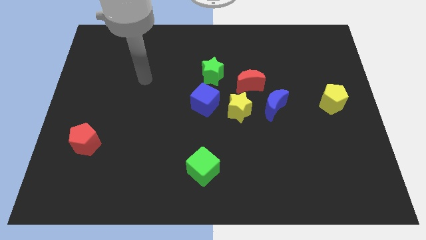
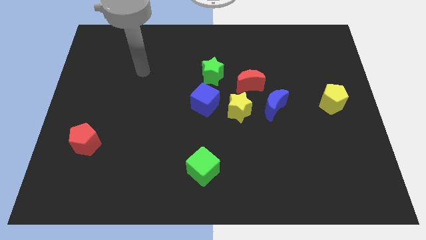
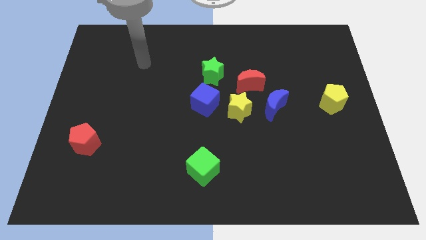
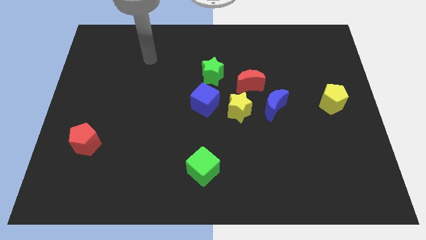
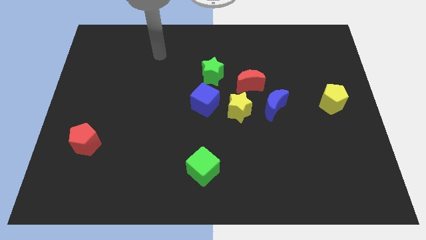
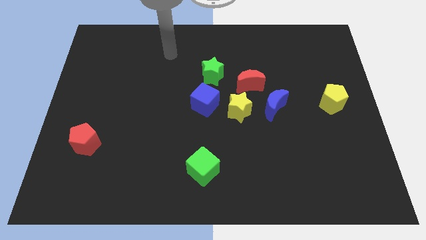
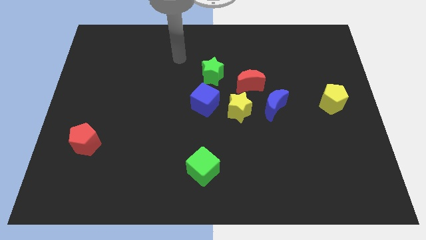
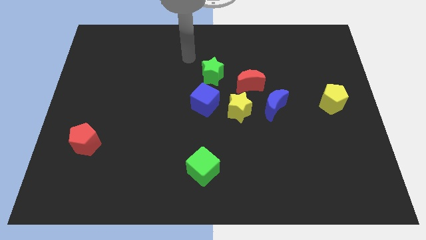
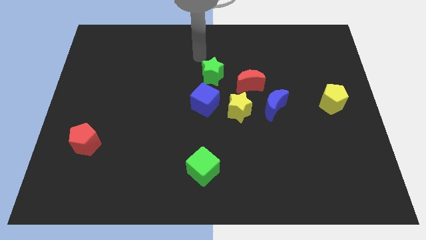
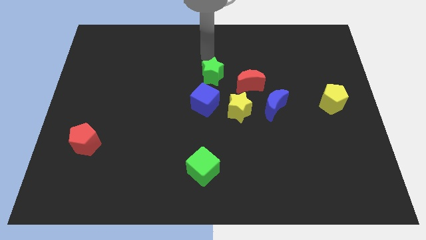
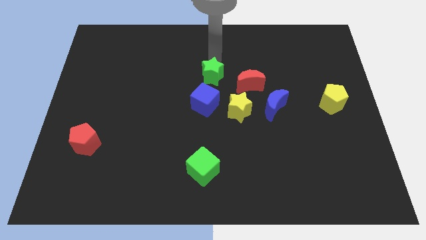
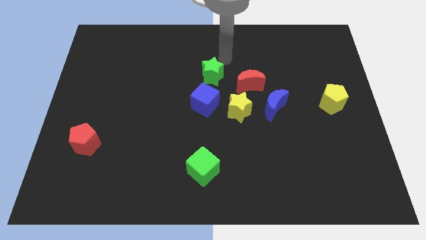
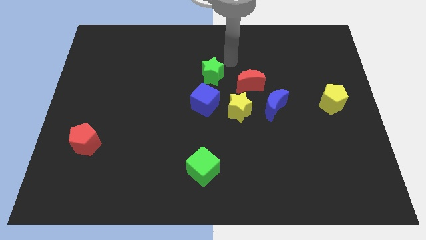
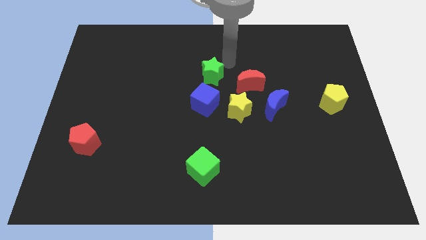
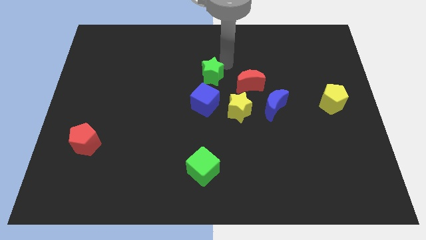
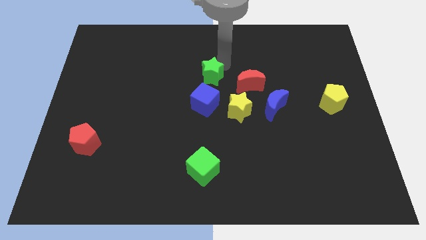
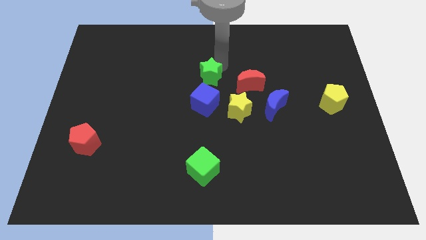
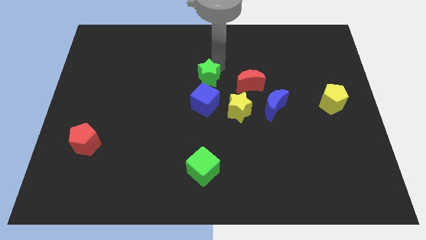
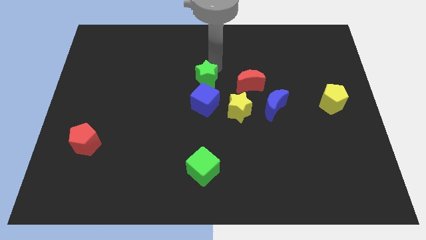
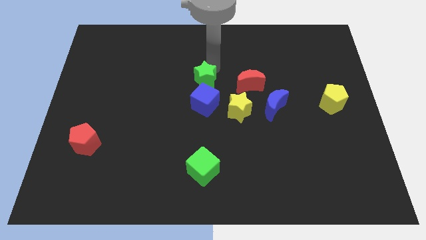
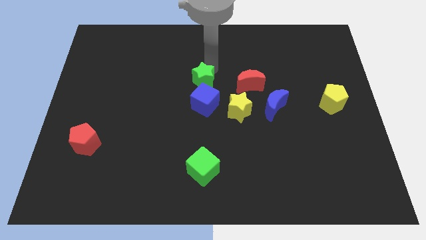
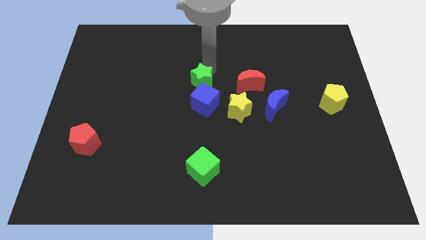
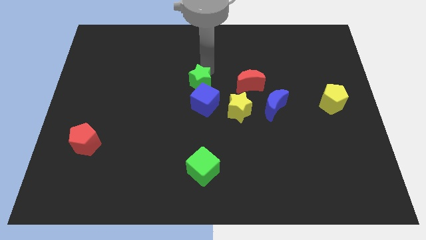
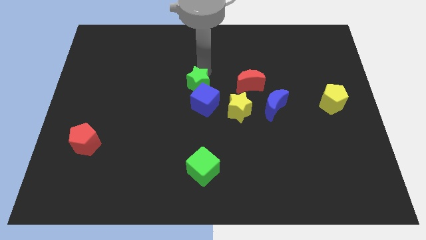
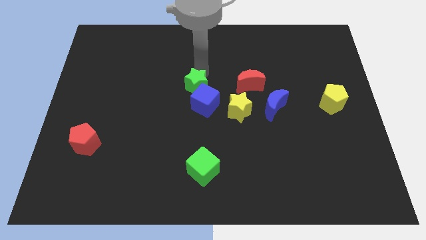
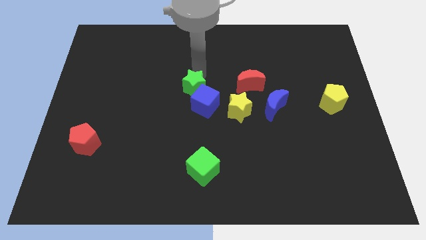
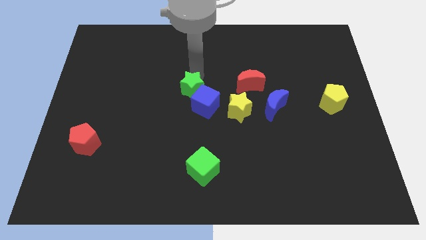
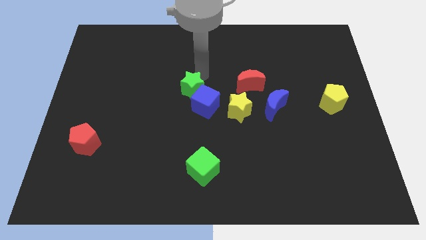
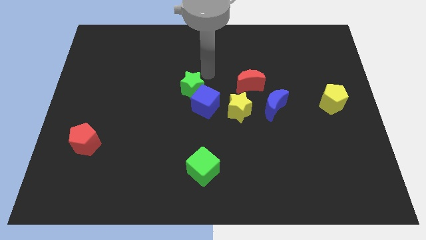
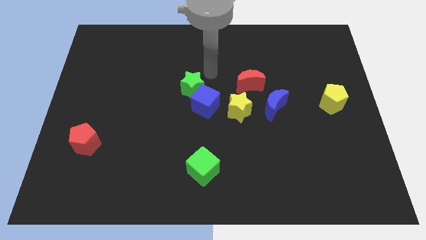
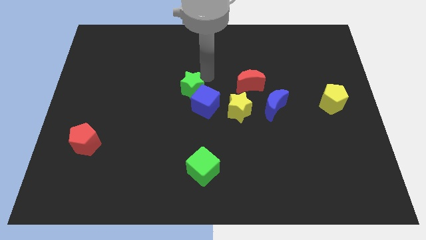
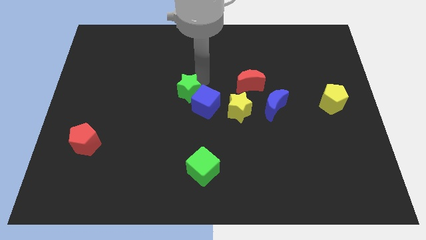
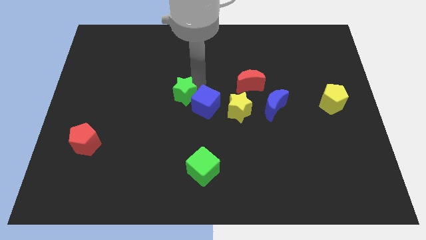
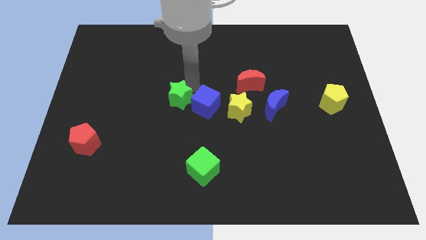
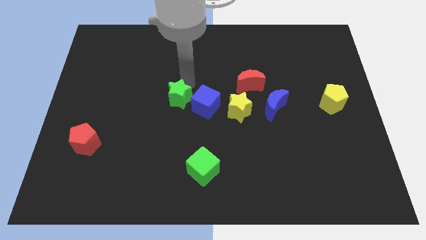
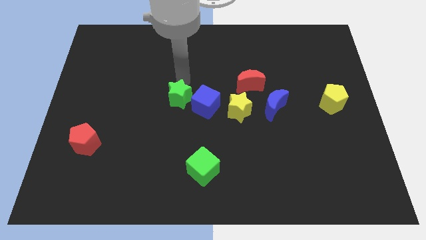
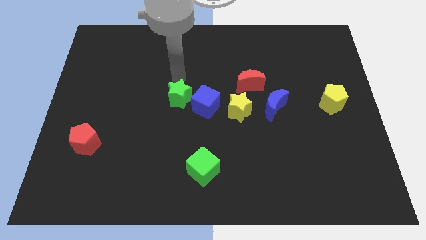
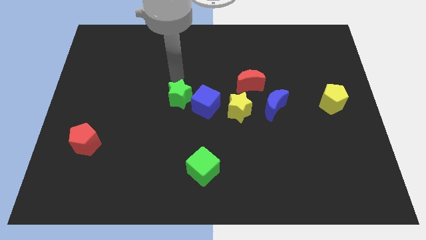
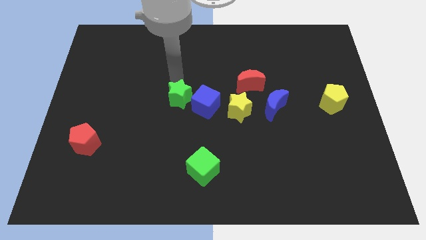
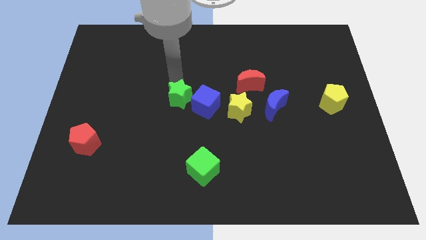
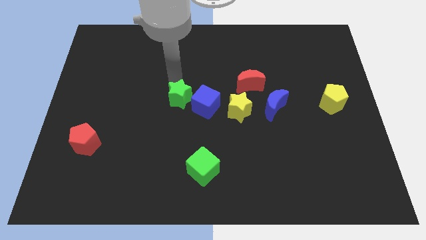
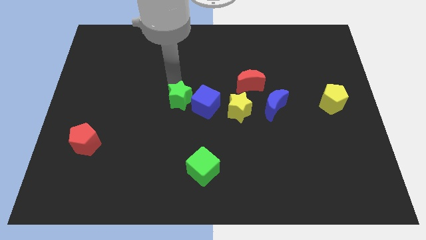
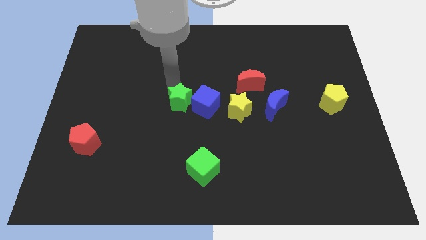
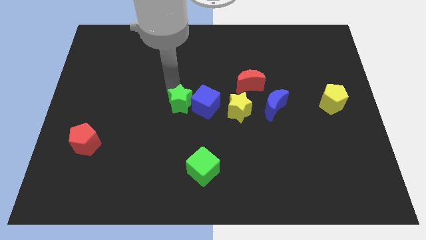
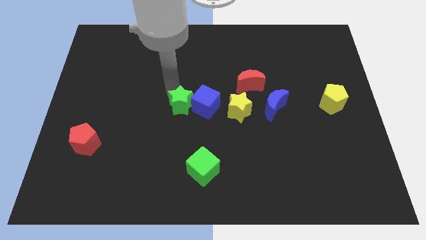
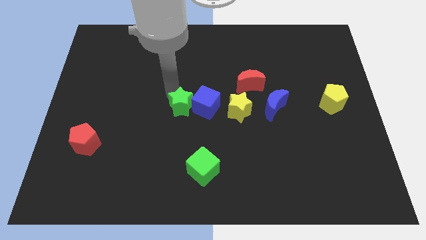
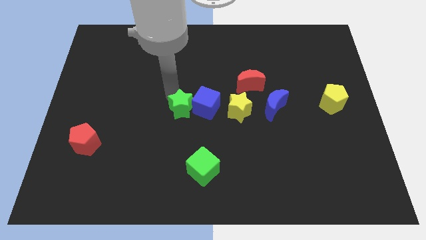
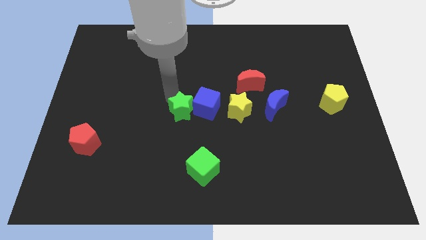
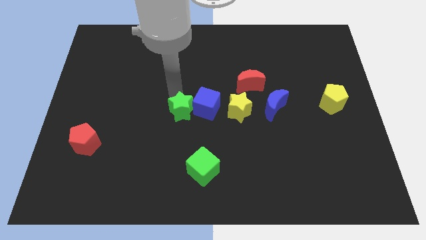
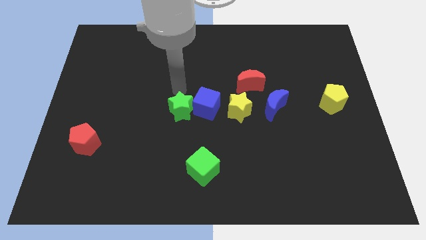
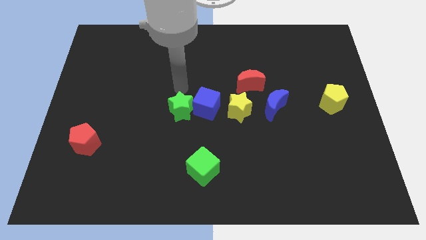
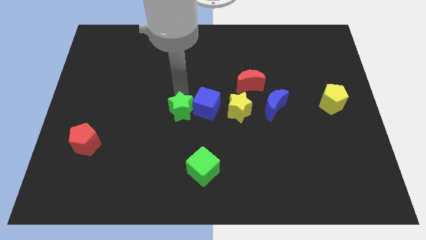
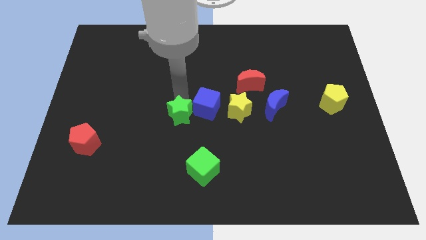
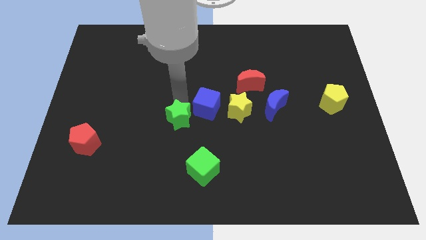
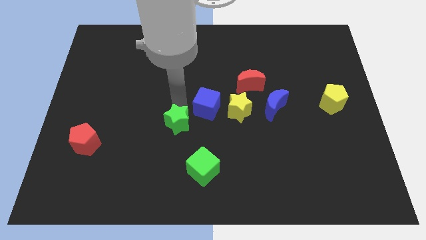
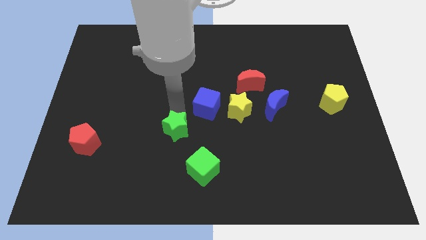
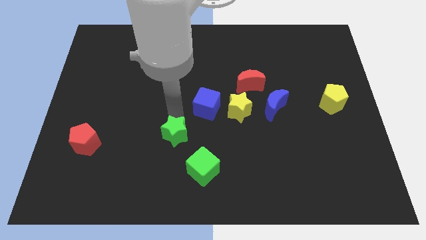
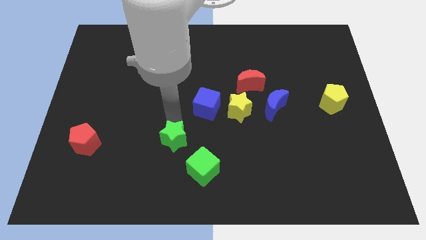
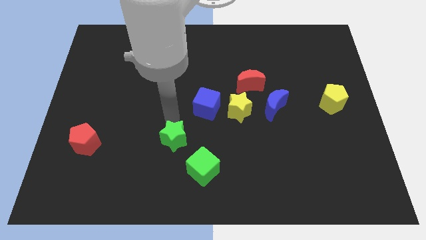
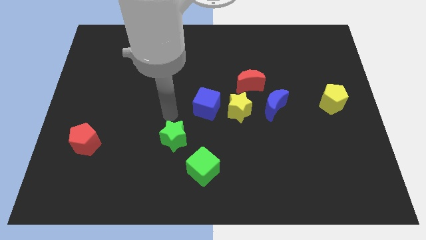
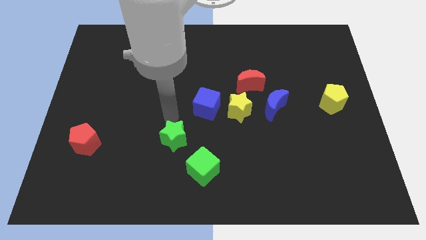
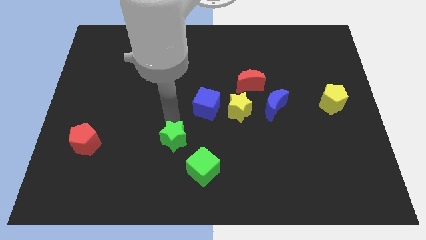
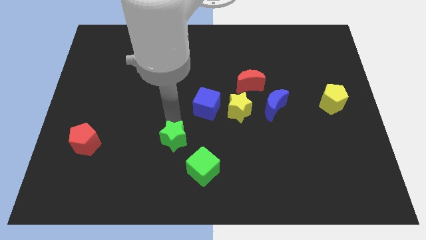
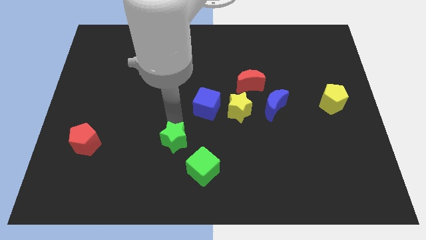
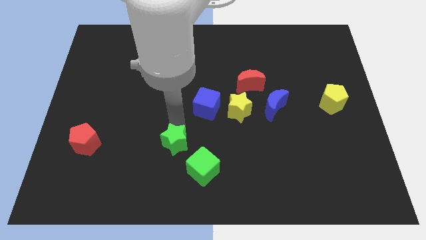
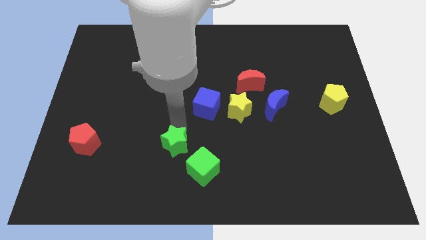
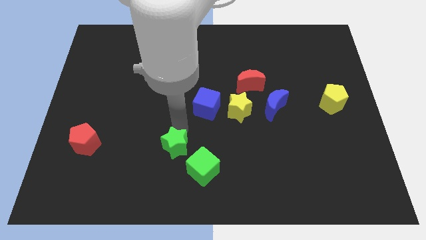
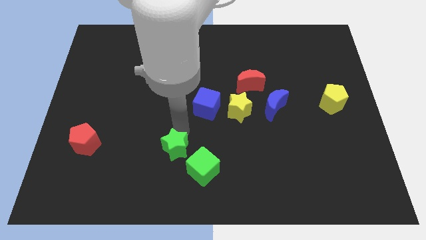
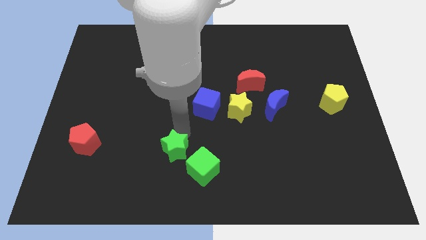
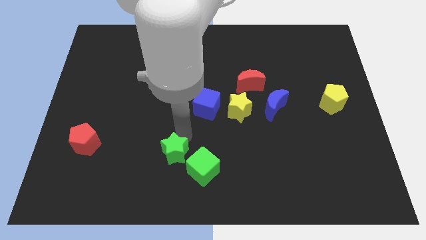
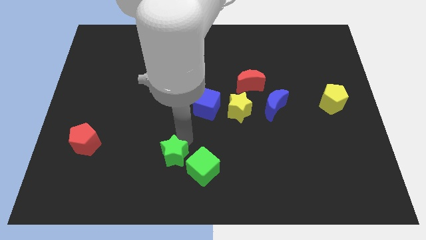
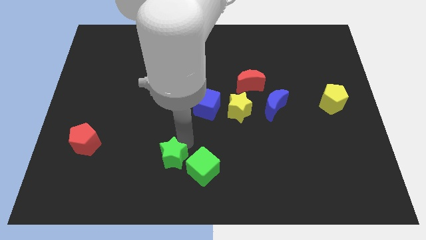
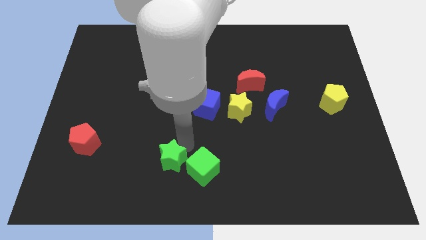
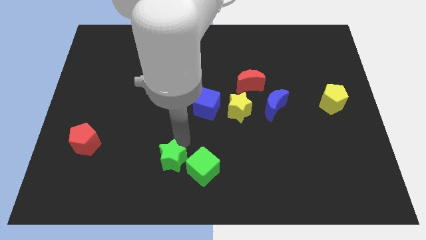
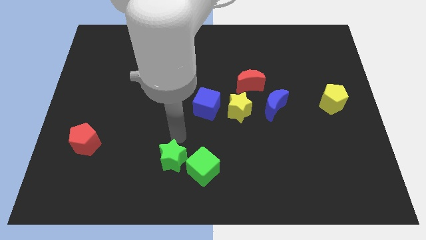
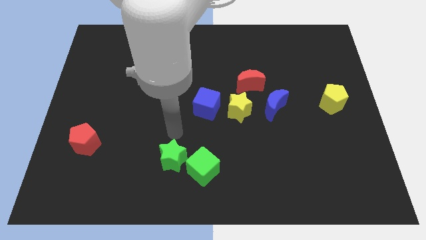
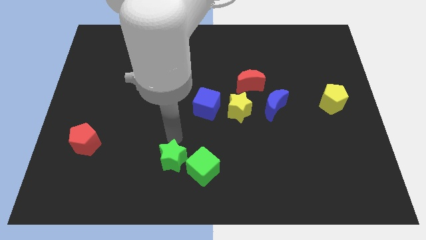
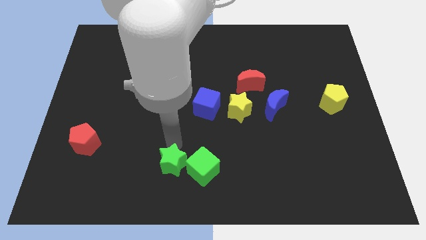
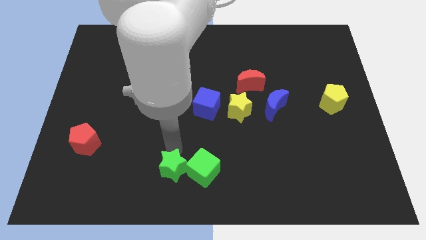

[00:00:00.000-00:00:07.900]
put the green star to the bottom side
